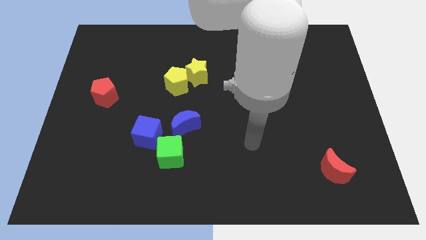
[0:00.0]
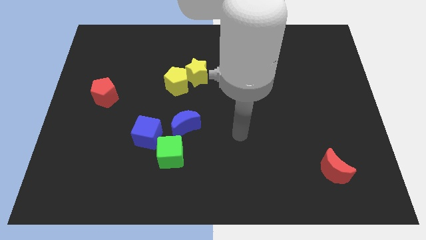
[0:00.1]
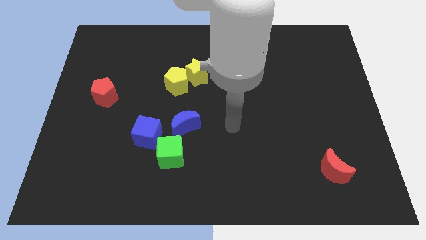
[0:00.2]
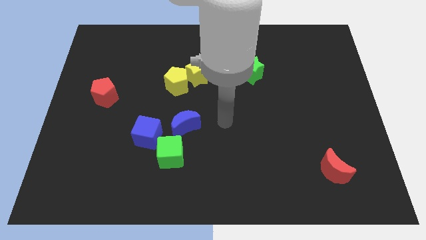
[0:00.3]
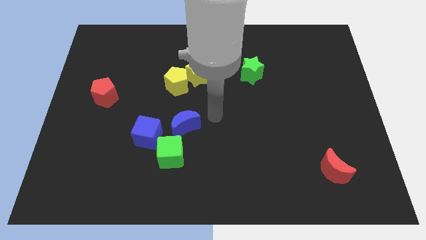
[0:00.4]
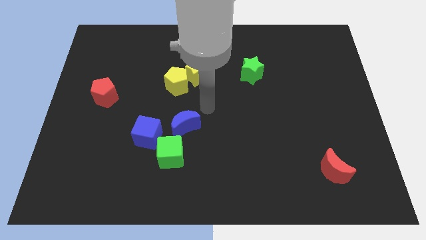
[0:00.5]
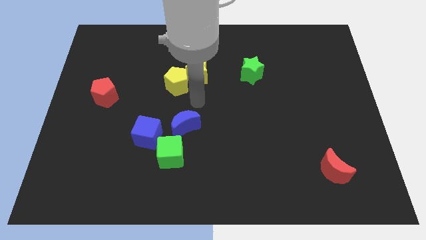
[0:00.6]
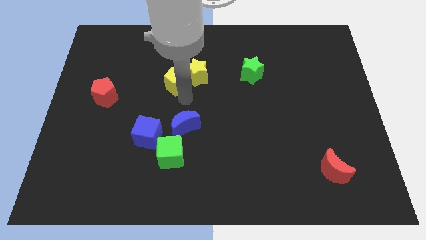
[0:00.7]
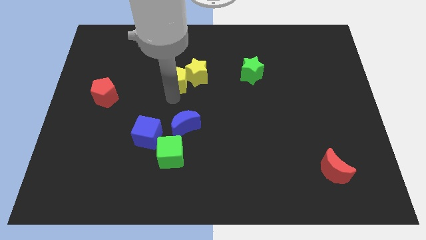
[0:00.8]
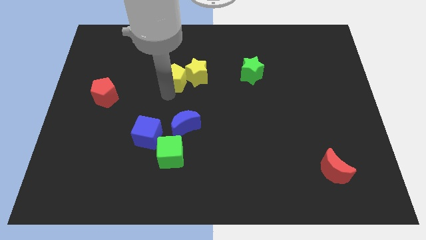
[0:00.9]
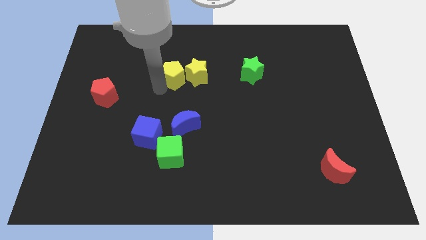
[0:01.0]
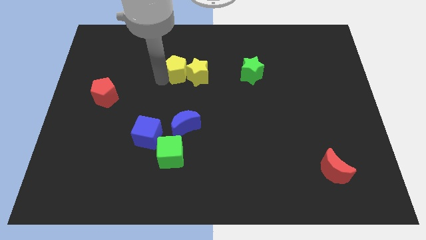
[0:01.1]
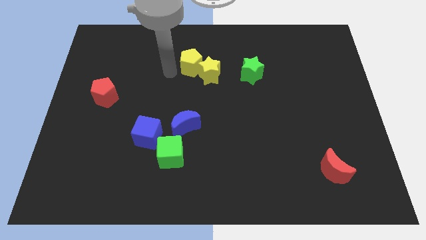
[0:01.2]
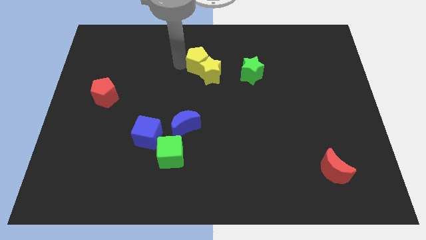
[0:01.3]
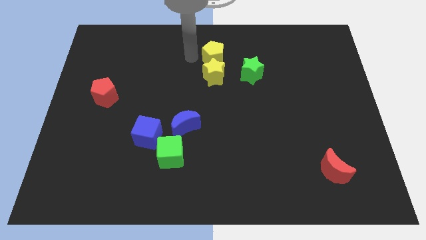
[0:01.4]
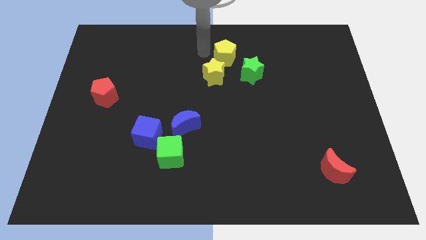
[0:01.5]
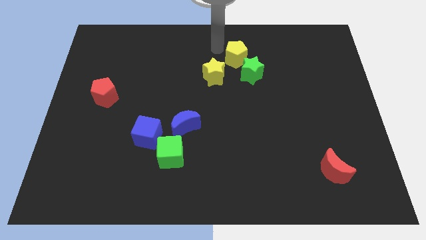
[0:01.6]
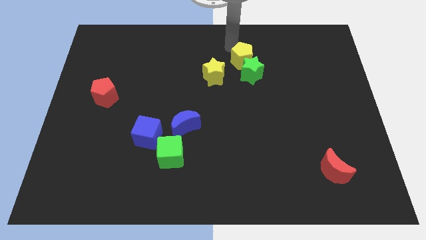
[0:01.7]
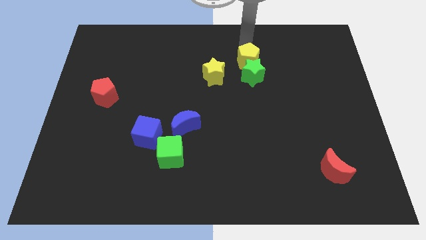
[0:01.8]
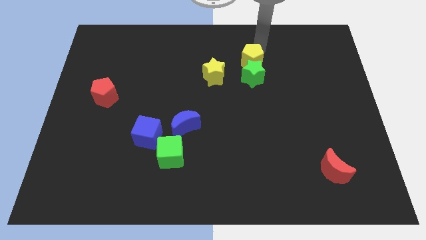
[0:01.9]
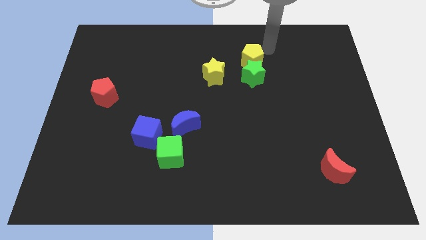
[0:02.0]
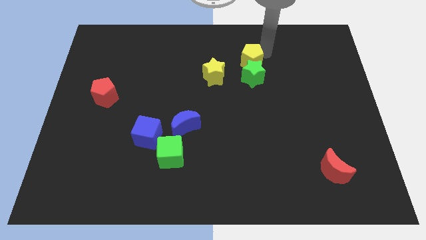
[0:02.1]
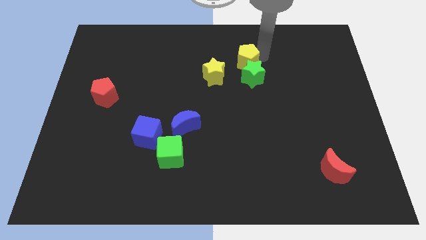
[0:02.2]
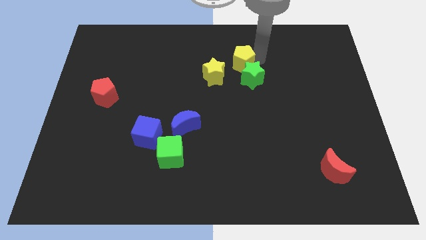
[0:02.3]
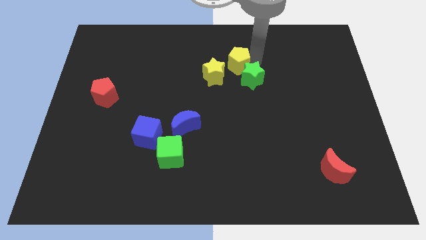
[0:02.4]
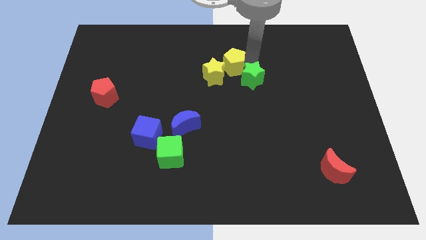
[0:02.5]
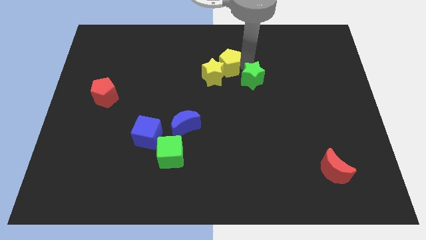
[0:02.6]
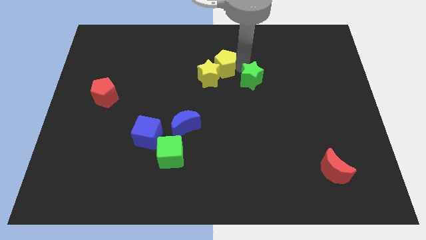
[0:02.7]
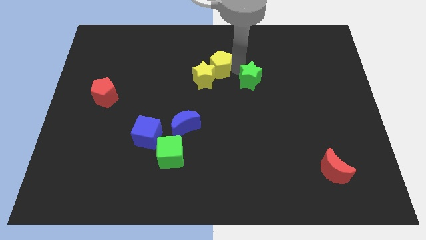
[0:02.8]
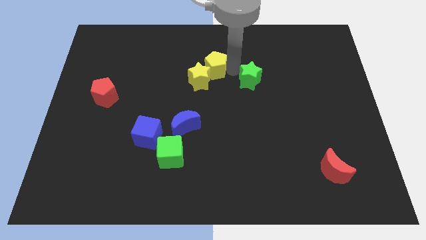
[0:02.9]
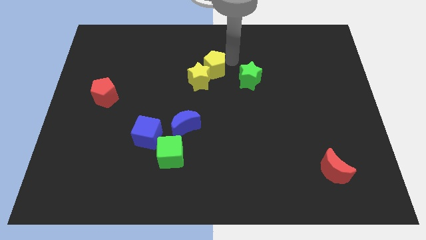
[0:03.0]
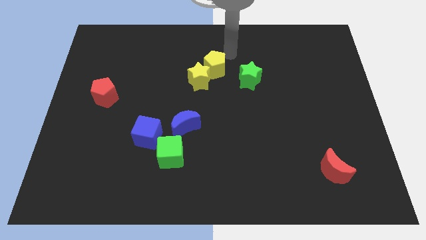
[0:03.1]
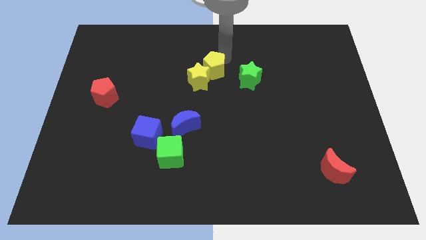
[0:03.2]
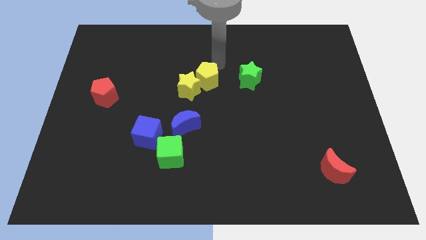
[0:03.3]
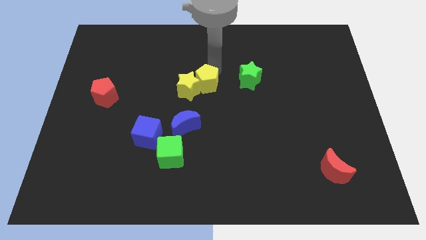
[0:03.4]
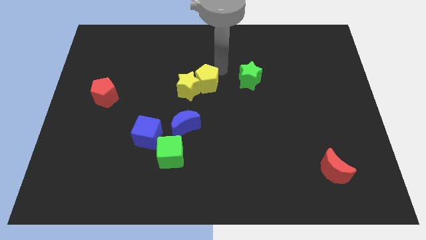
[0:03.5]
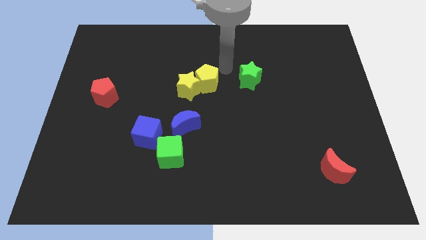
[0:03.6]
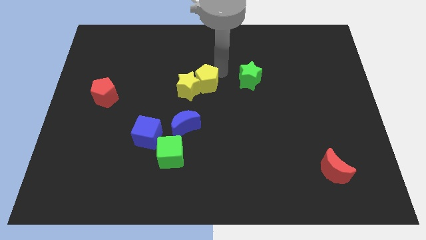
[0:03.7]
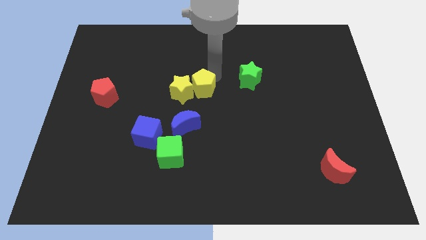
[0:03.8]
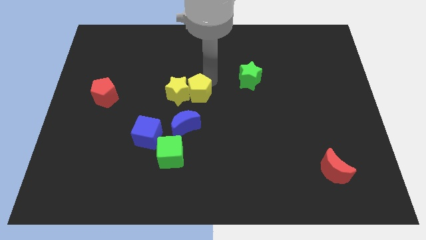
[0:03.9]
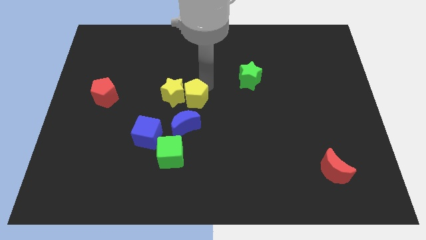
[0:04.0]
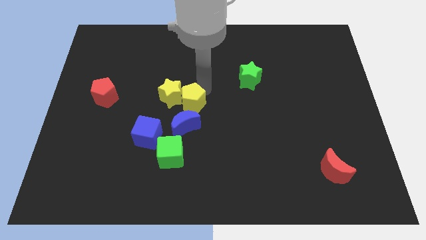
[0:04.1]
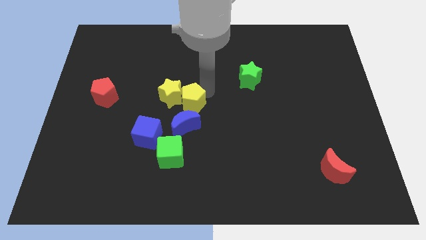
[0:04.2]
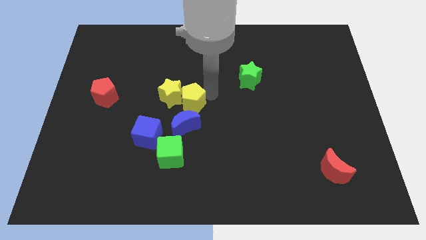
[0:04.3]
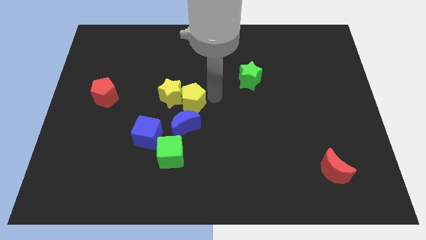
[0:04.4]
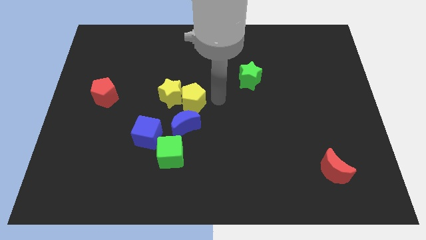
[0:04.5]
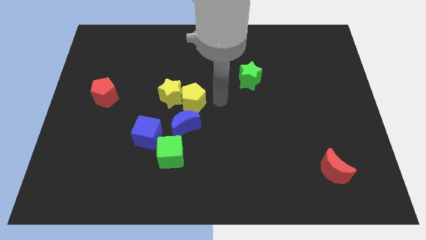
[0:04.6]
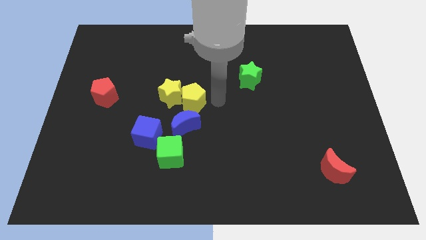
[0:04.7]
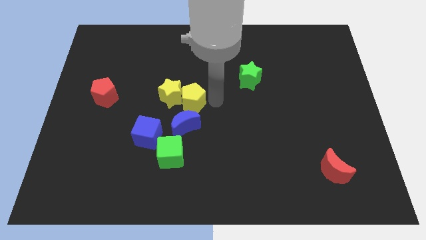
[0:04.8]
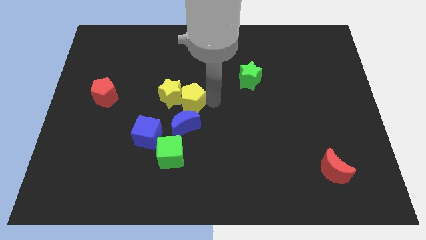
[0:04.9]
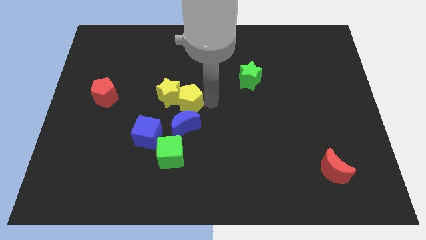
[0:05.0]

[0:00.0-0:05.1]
put the yellow pentagon diagonally up and to the right of the blue cube

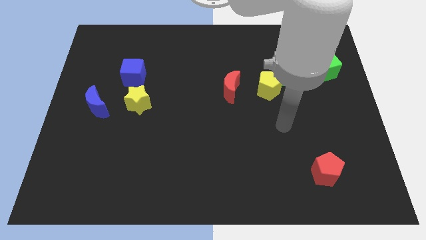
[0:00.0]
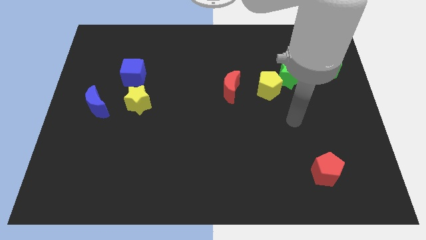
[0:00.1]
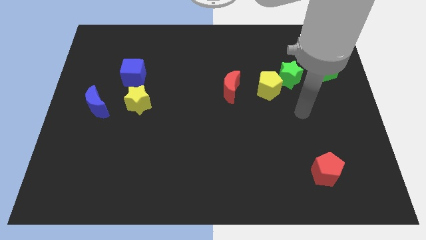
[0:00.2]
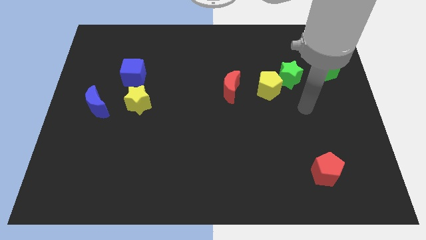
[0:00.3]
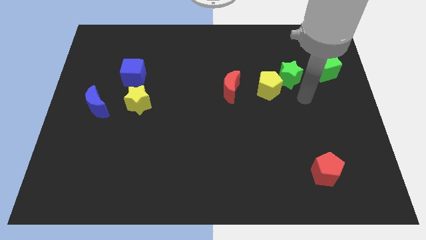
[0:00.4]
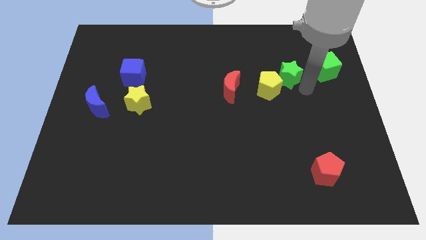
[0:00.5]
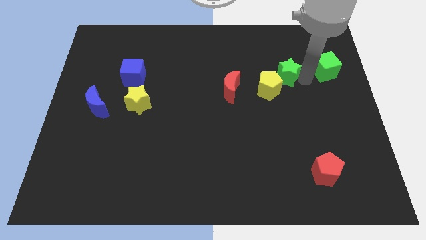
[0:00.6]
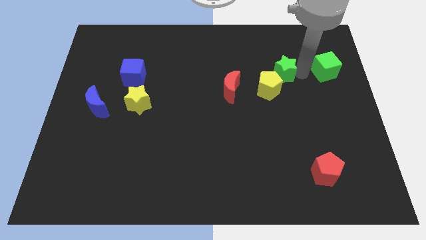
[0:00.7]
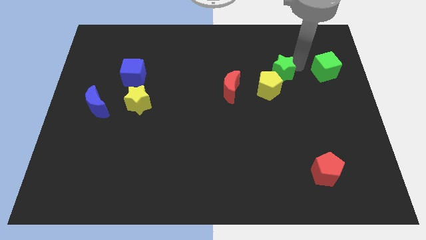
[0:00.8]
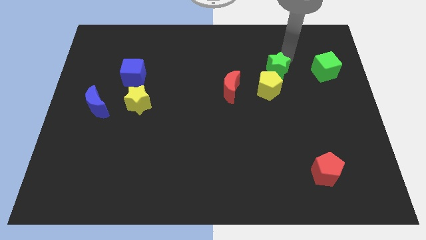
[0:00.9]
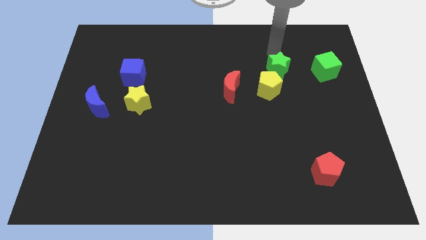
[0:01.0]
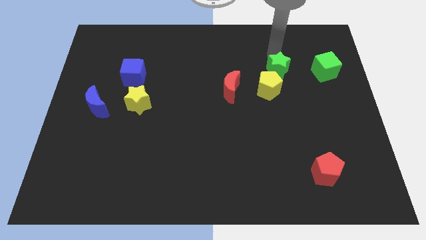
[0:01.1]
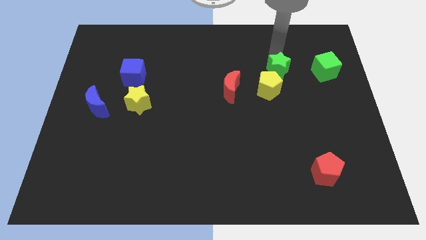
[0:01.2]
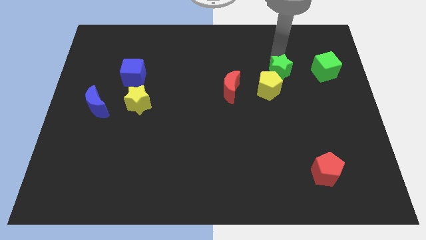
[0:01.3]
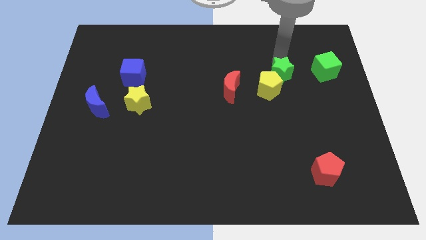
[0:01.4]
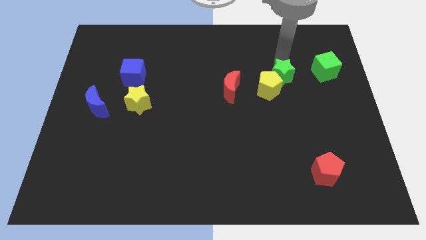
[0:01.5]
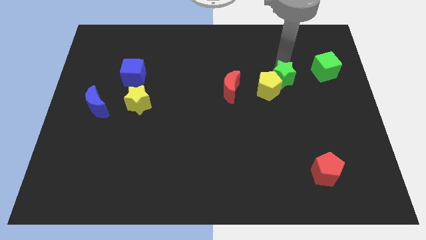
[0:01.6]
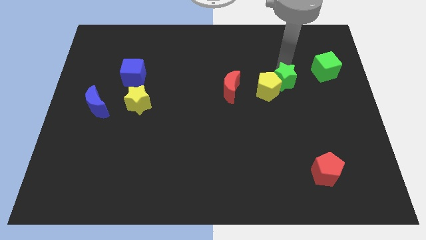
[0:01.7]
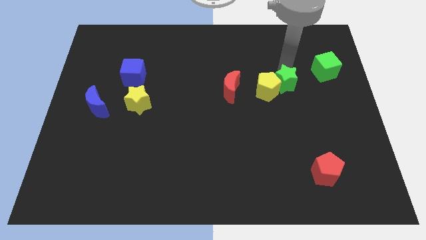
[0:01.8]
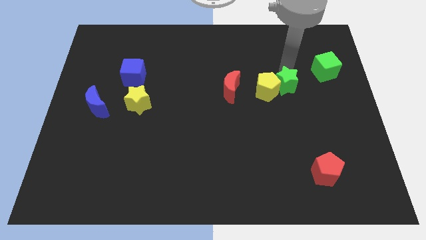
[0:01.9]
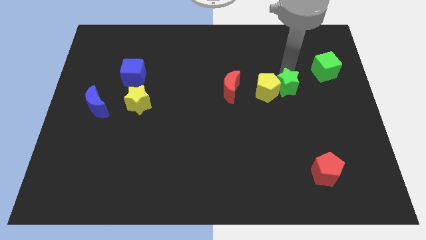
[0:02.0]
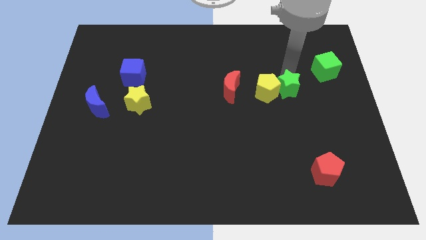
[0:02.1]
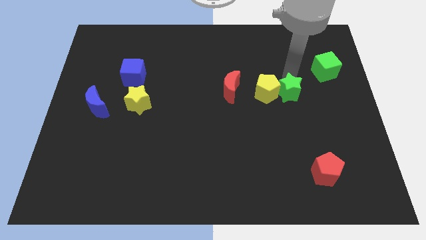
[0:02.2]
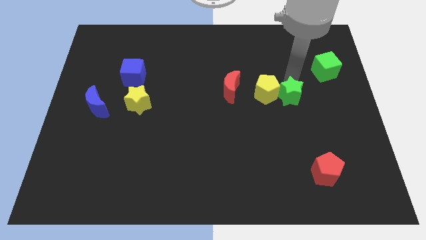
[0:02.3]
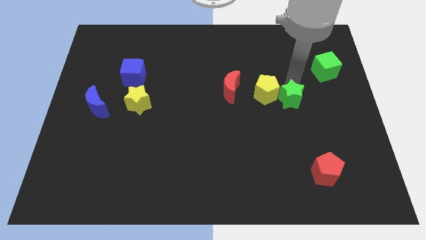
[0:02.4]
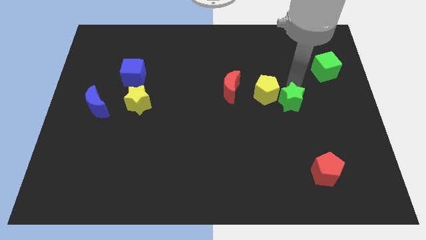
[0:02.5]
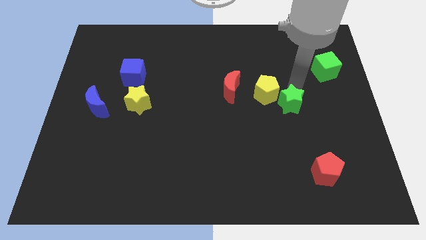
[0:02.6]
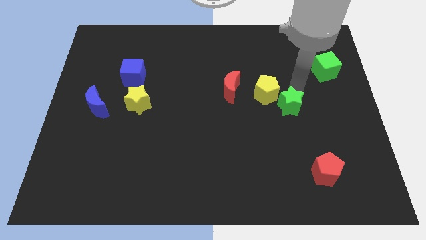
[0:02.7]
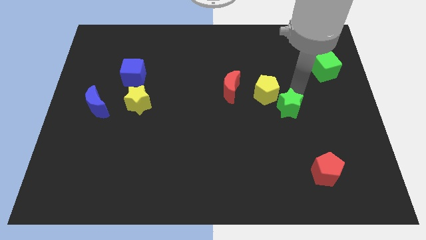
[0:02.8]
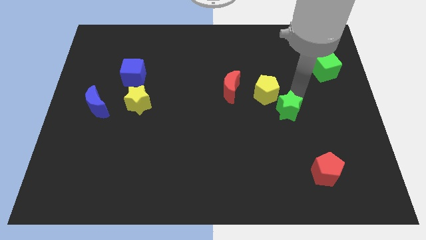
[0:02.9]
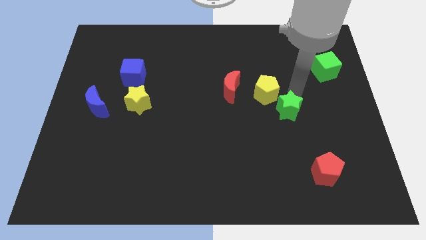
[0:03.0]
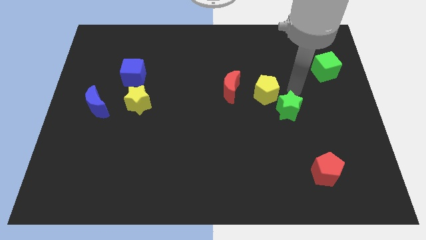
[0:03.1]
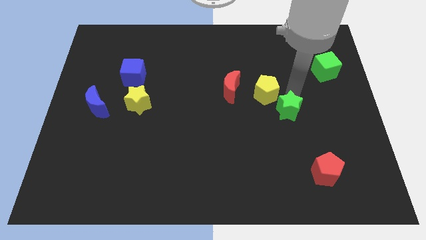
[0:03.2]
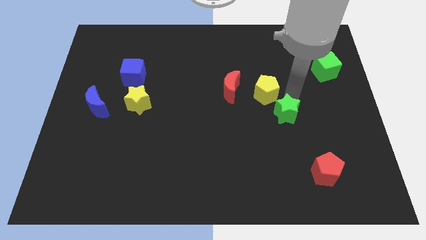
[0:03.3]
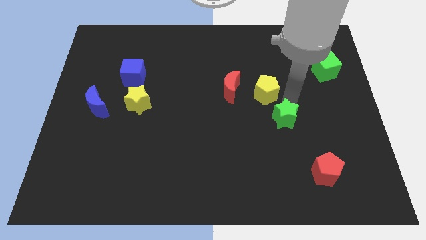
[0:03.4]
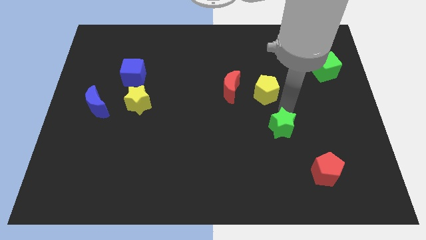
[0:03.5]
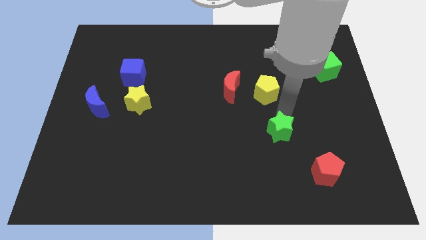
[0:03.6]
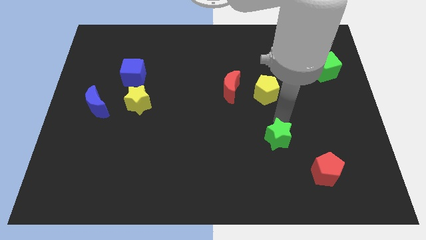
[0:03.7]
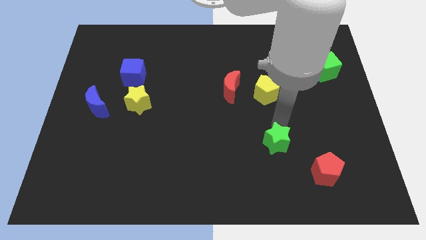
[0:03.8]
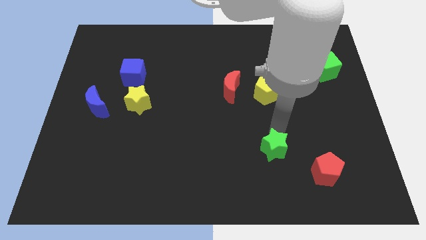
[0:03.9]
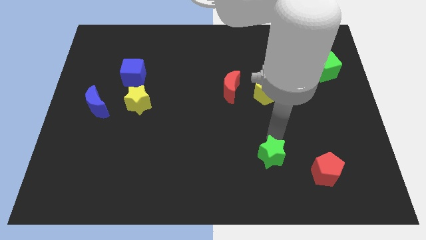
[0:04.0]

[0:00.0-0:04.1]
slide the green star just left of the red pentagon
